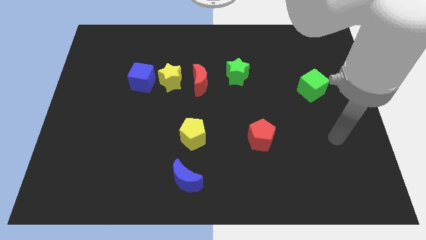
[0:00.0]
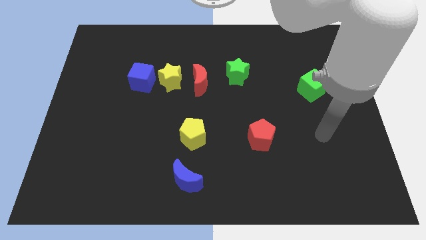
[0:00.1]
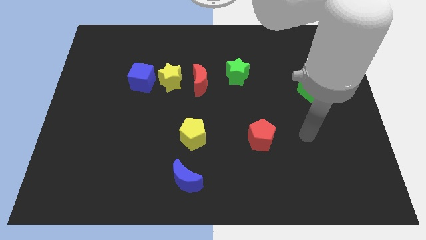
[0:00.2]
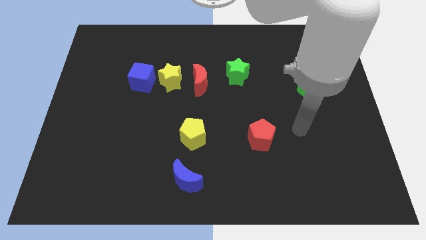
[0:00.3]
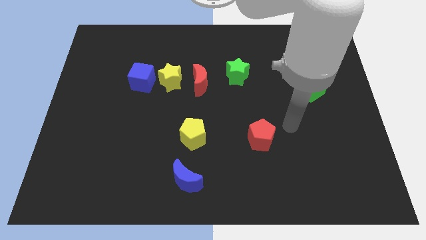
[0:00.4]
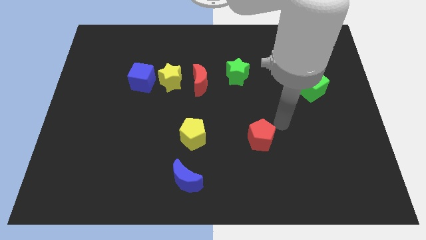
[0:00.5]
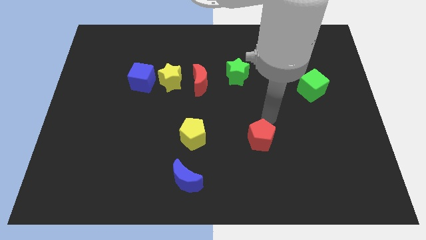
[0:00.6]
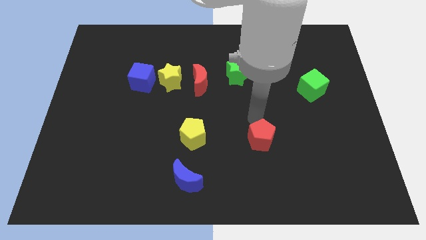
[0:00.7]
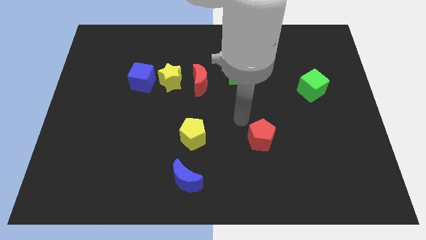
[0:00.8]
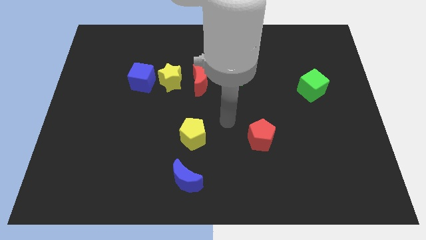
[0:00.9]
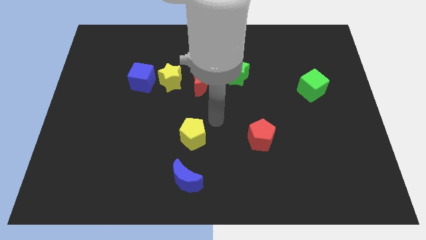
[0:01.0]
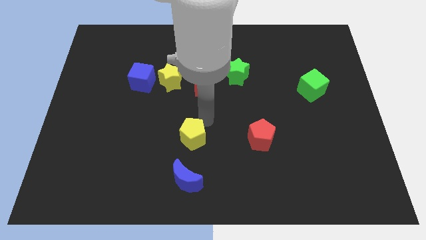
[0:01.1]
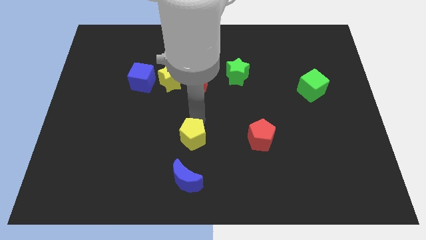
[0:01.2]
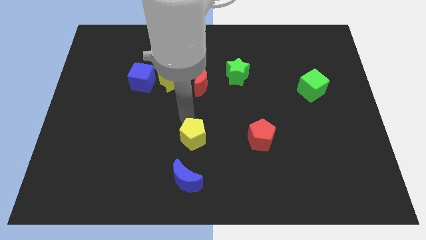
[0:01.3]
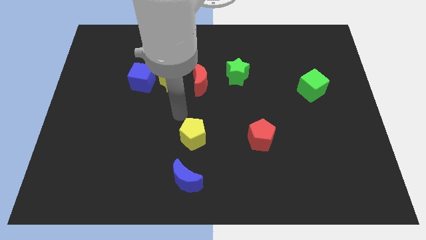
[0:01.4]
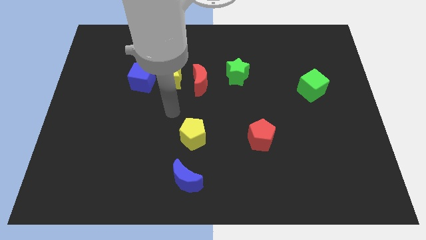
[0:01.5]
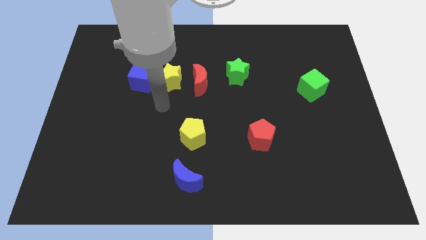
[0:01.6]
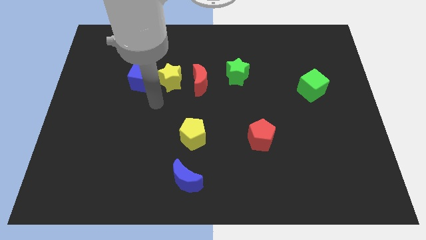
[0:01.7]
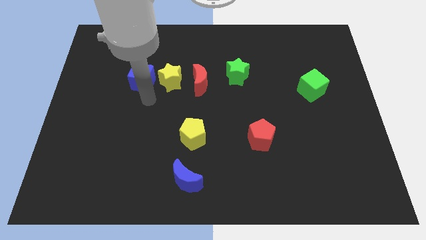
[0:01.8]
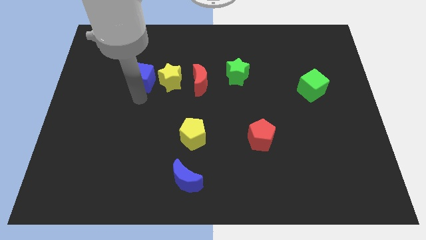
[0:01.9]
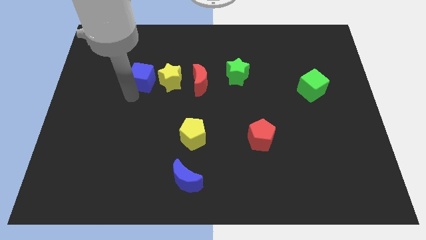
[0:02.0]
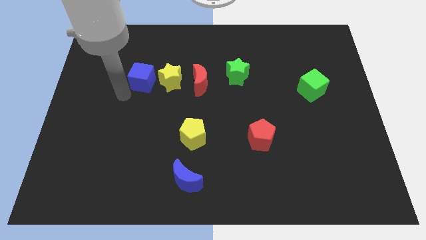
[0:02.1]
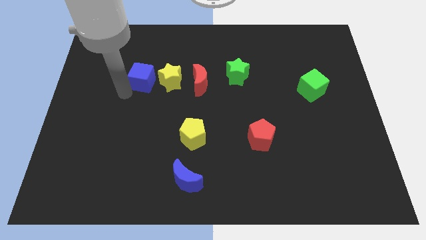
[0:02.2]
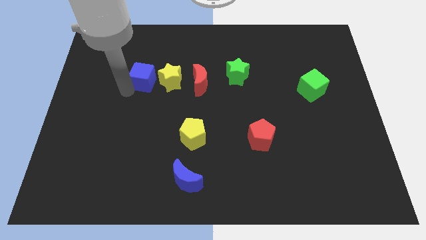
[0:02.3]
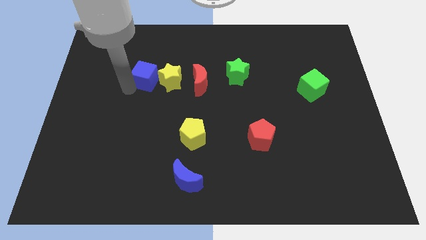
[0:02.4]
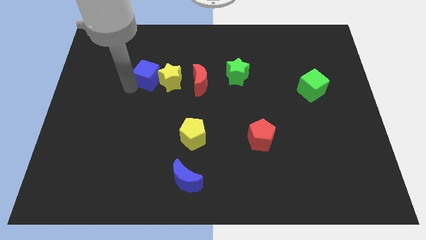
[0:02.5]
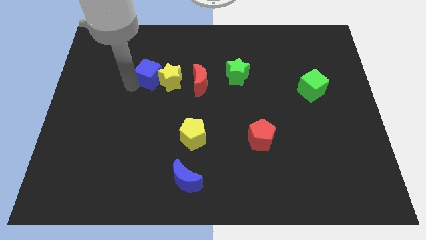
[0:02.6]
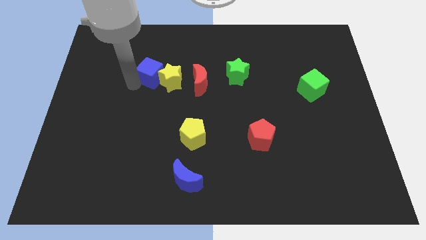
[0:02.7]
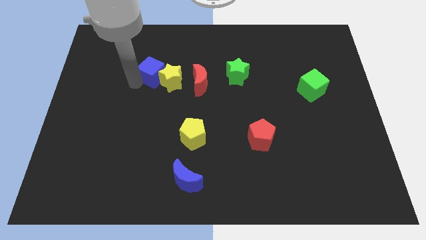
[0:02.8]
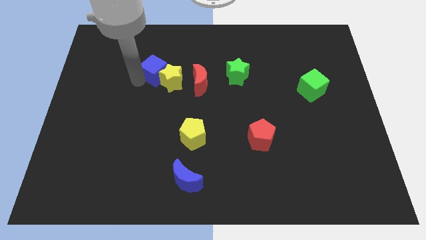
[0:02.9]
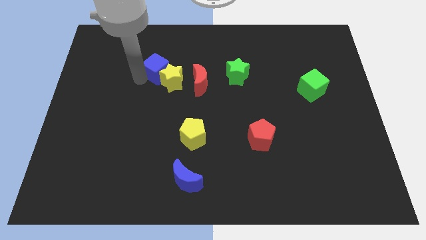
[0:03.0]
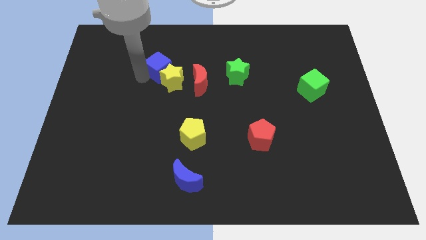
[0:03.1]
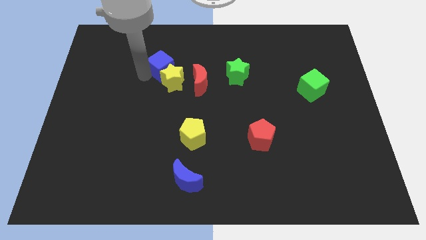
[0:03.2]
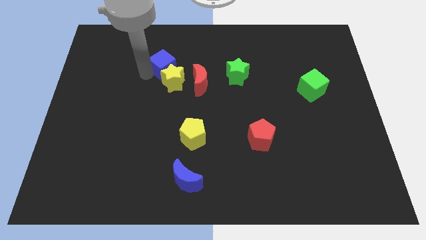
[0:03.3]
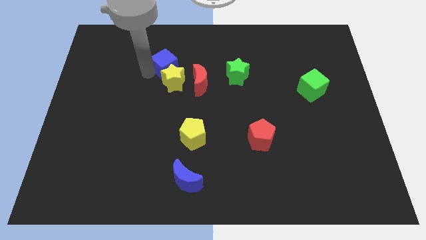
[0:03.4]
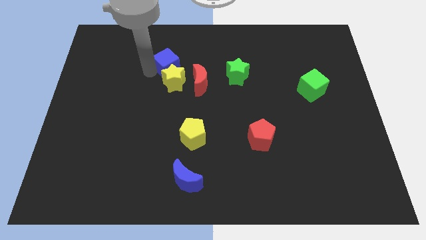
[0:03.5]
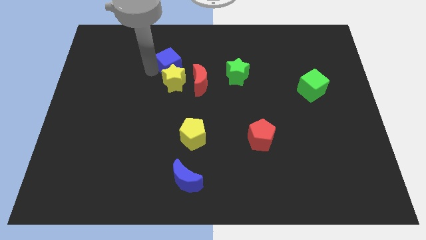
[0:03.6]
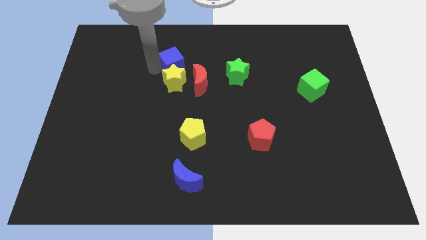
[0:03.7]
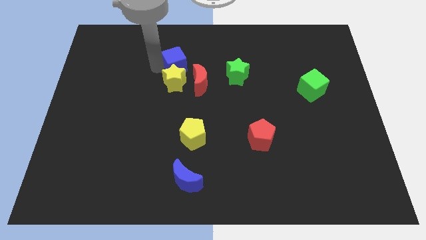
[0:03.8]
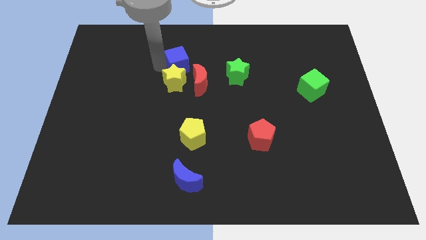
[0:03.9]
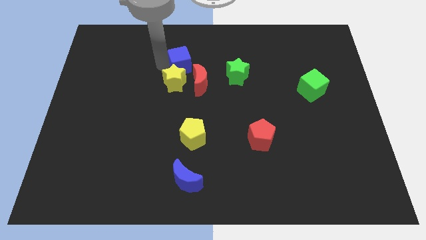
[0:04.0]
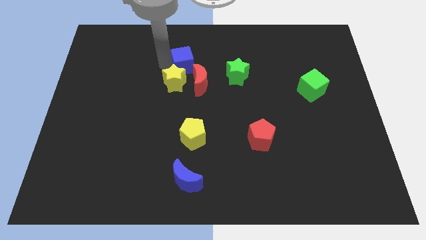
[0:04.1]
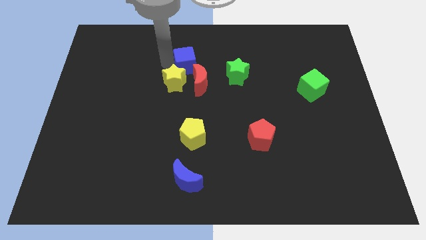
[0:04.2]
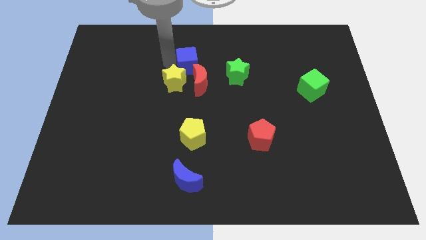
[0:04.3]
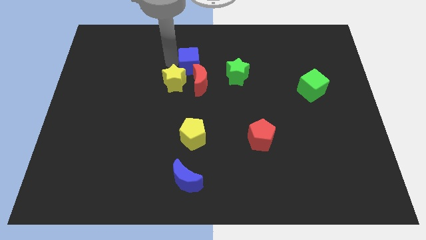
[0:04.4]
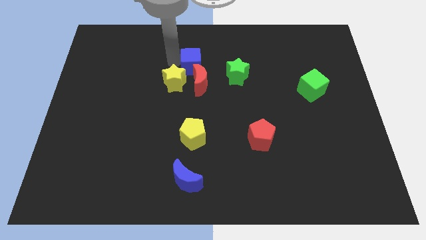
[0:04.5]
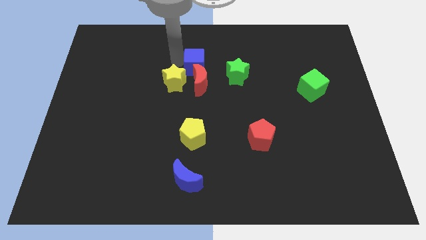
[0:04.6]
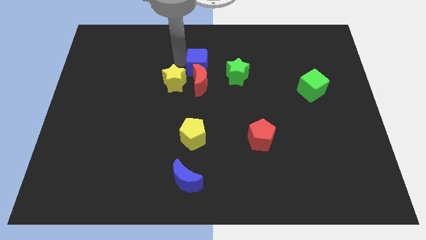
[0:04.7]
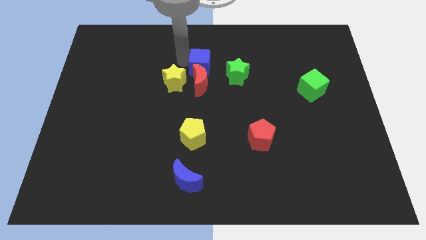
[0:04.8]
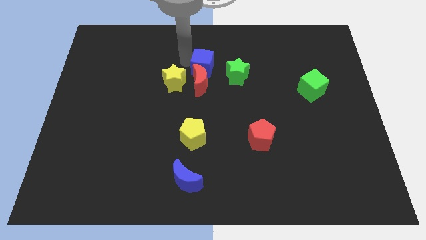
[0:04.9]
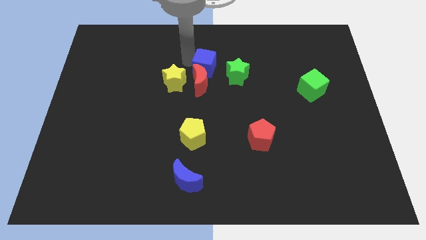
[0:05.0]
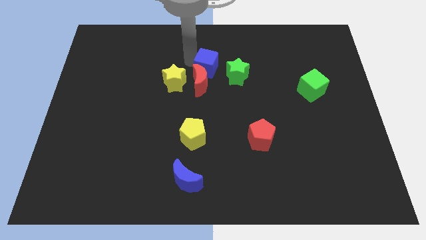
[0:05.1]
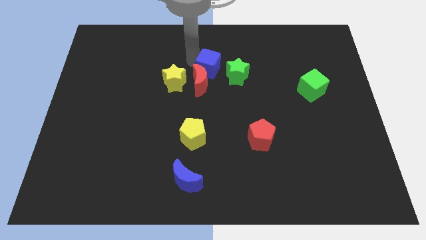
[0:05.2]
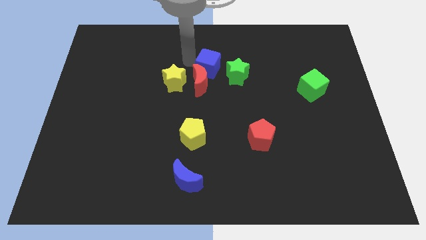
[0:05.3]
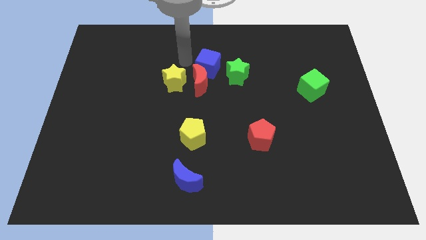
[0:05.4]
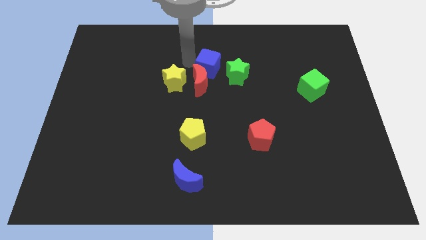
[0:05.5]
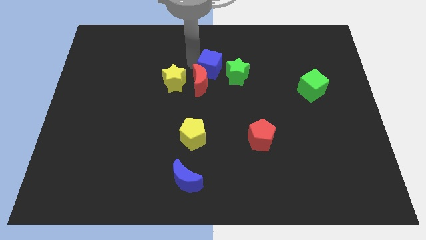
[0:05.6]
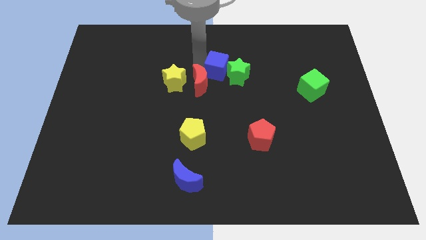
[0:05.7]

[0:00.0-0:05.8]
push the blue cube close to the green star

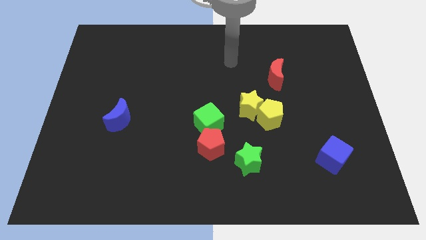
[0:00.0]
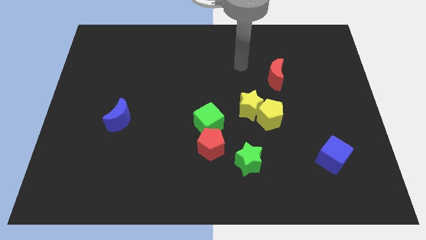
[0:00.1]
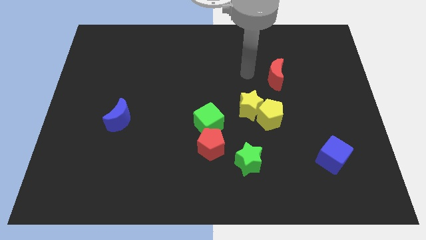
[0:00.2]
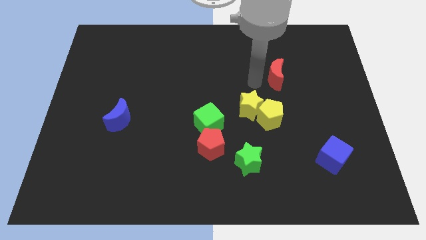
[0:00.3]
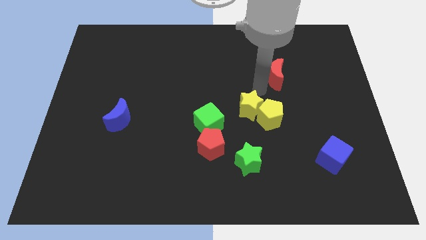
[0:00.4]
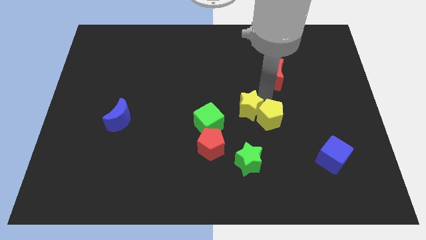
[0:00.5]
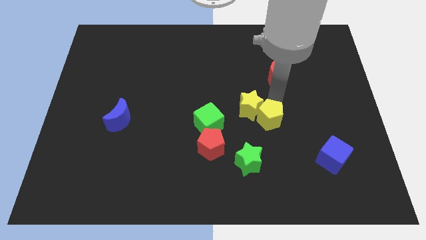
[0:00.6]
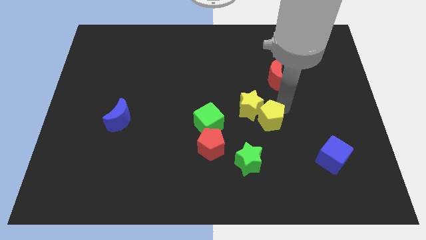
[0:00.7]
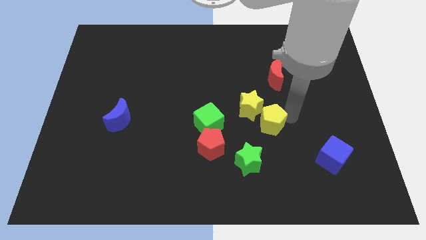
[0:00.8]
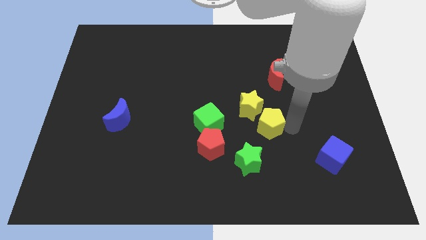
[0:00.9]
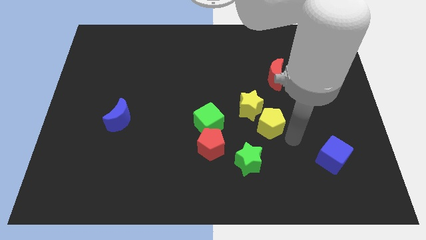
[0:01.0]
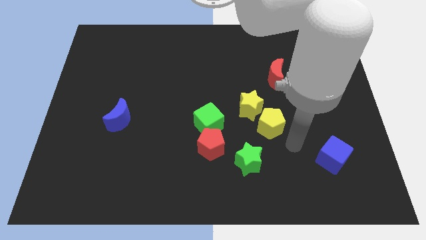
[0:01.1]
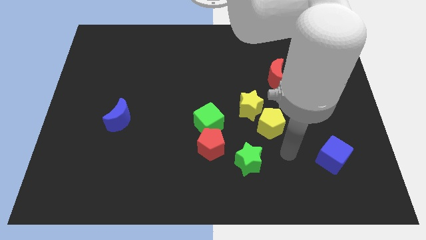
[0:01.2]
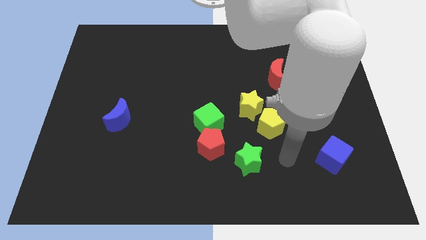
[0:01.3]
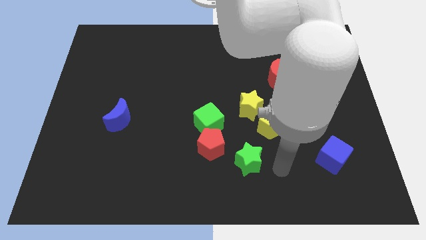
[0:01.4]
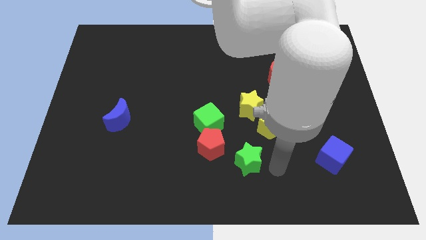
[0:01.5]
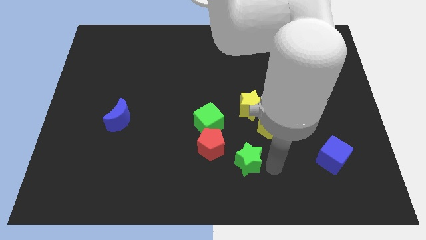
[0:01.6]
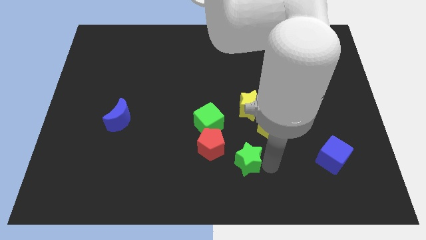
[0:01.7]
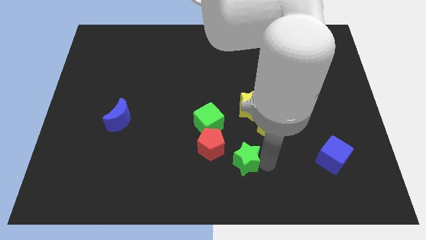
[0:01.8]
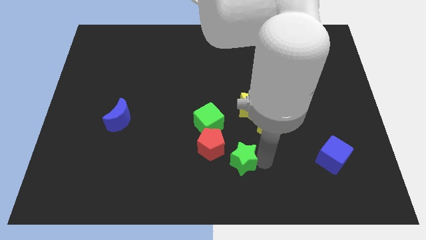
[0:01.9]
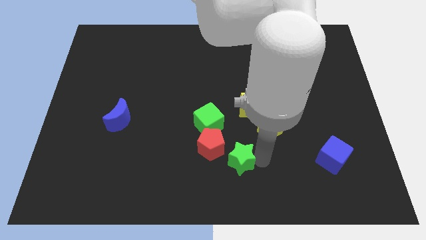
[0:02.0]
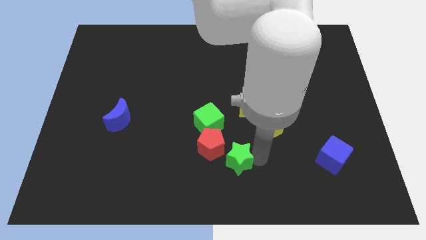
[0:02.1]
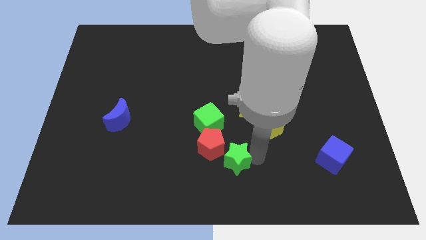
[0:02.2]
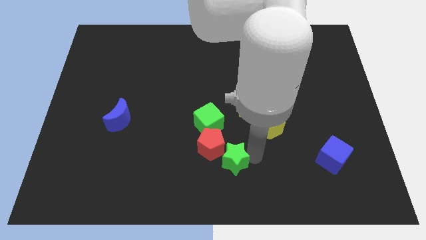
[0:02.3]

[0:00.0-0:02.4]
move the green star next to the red pentagon
